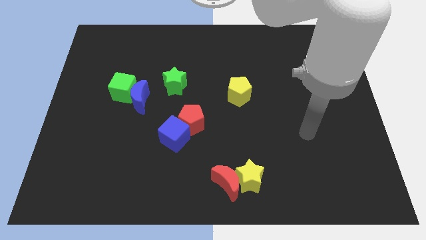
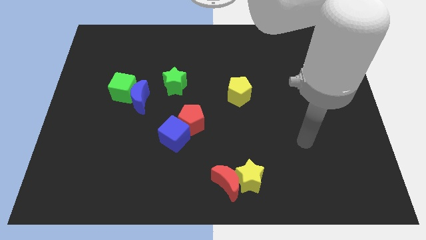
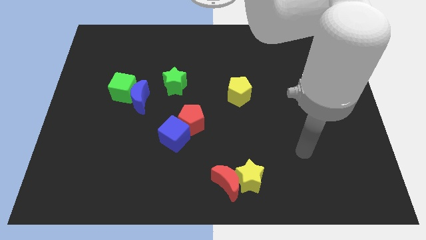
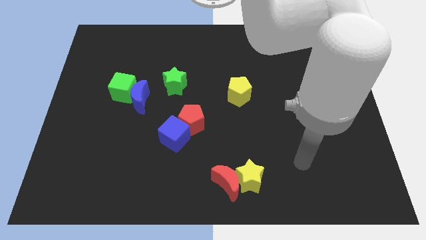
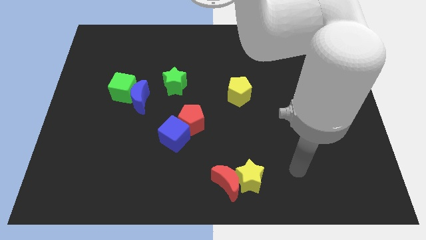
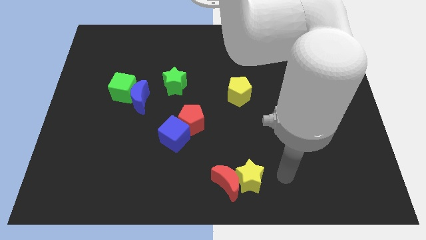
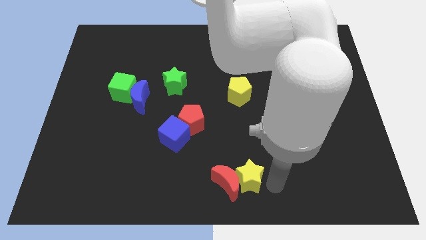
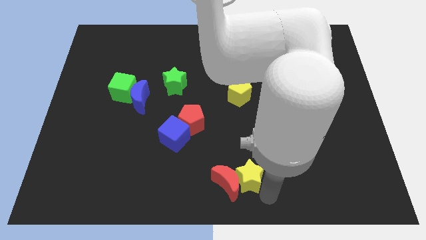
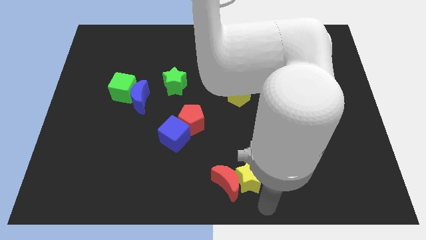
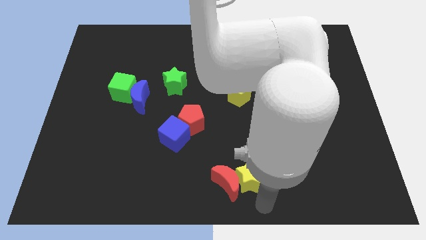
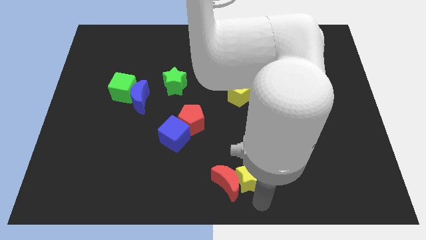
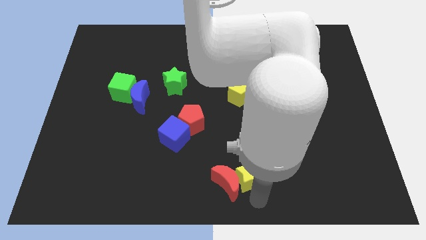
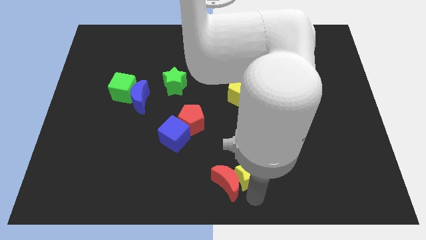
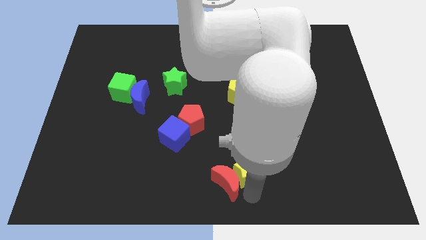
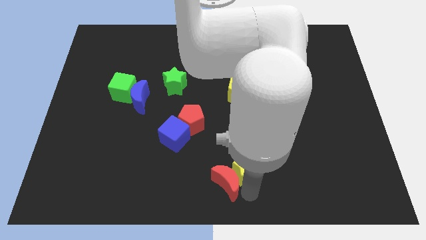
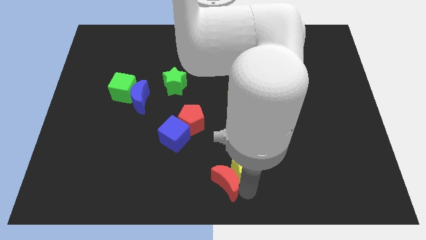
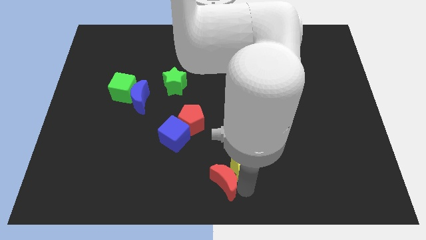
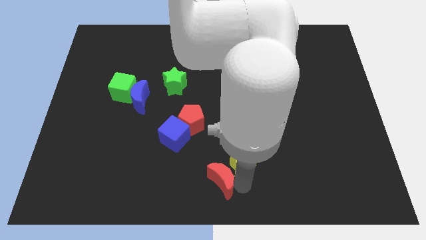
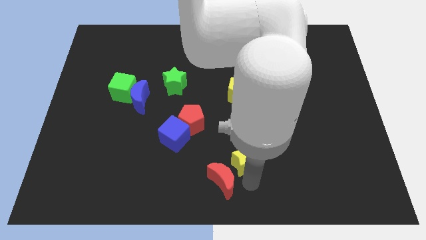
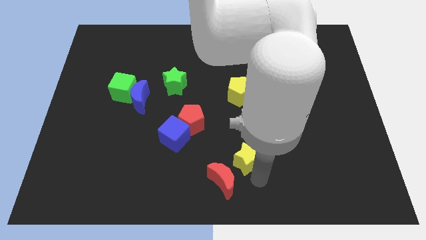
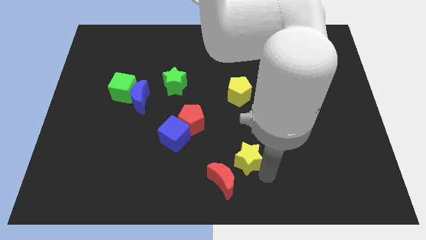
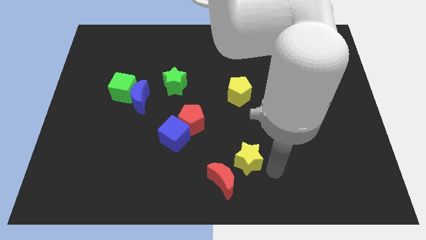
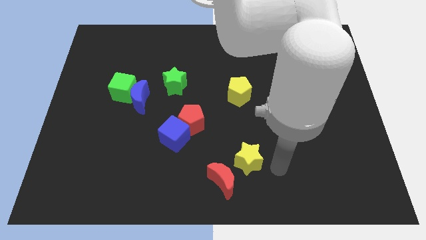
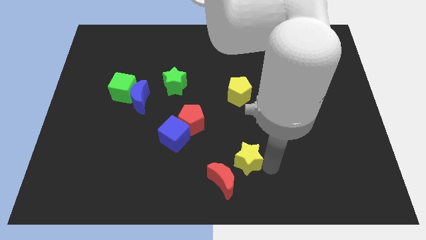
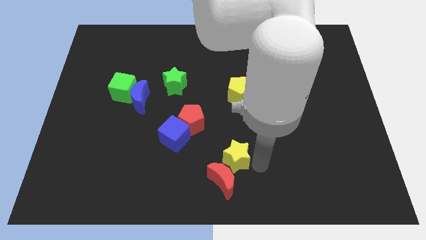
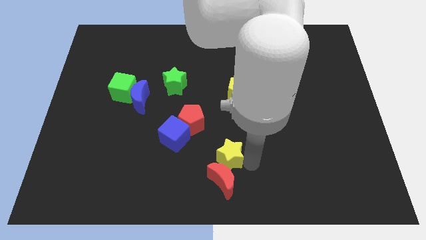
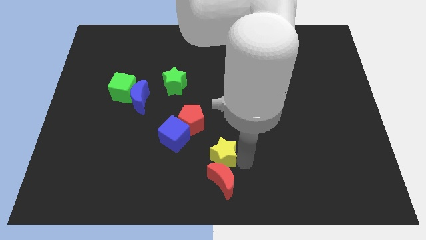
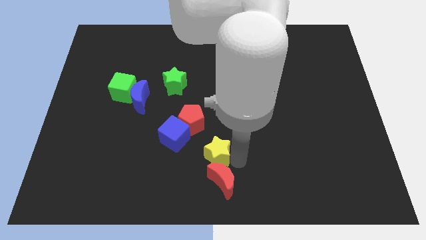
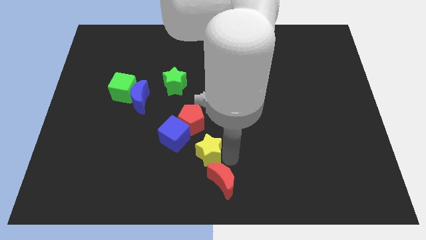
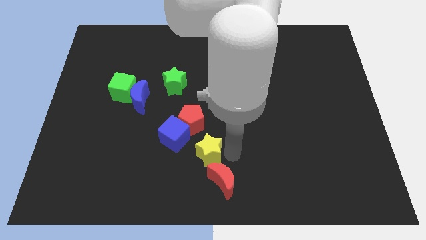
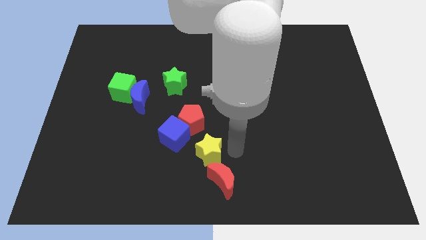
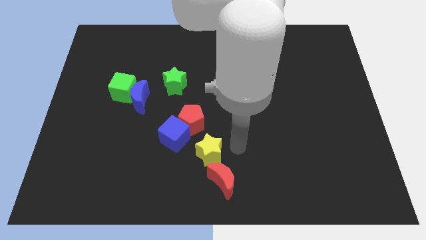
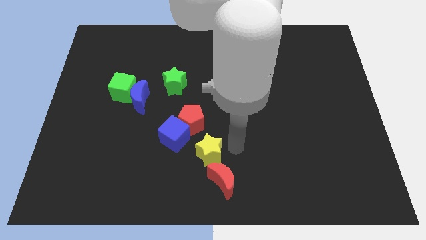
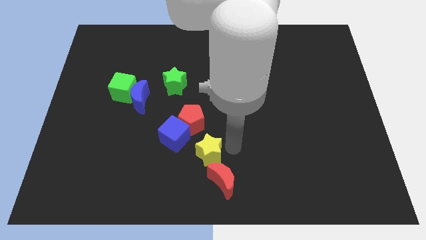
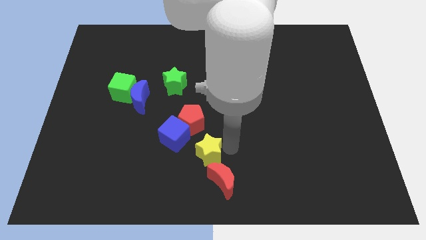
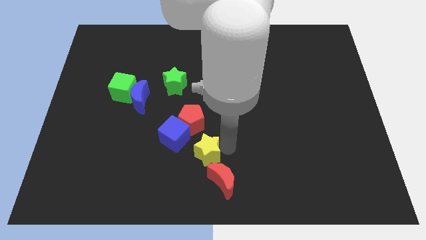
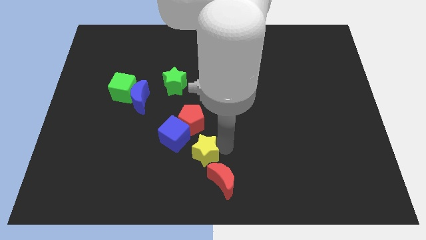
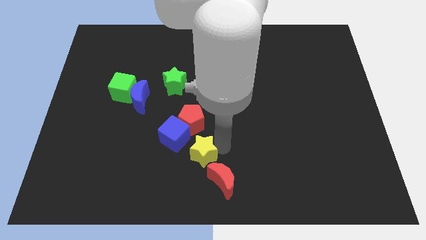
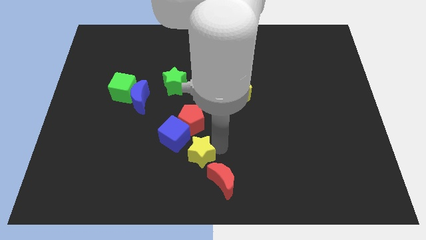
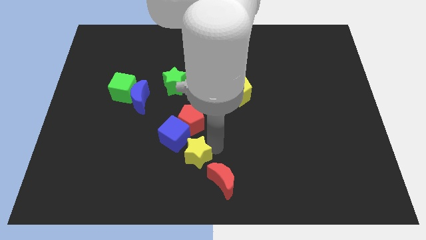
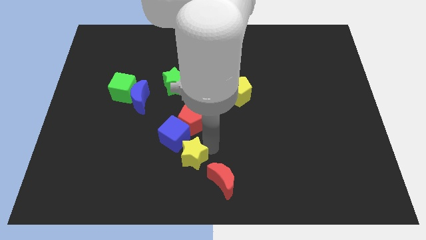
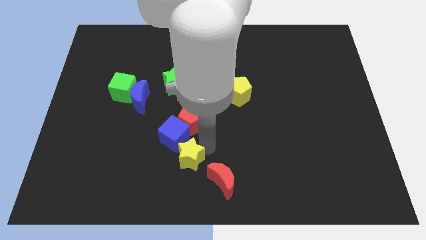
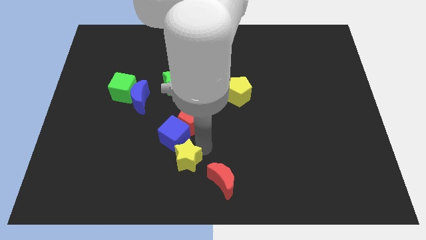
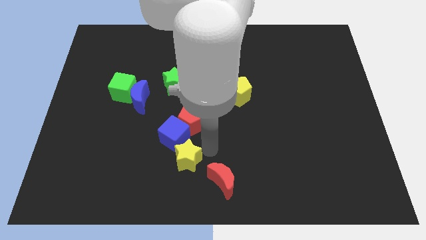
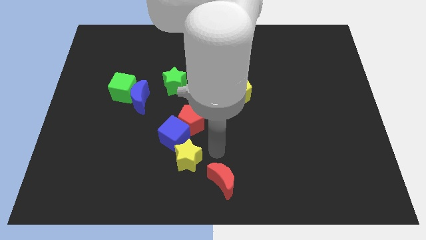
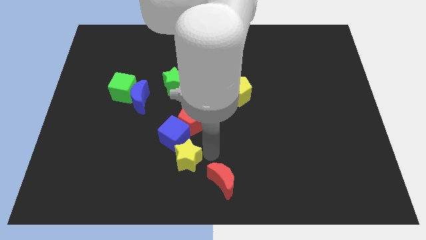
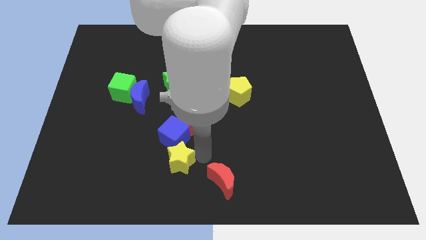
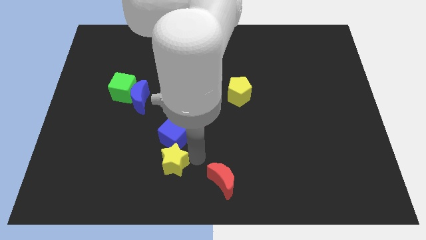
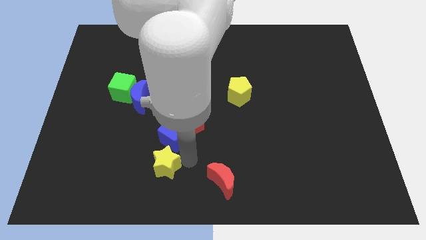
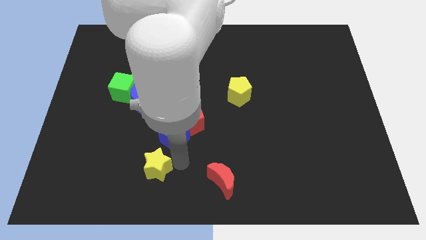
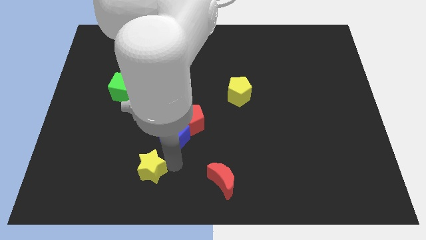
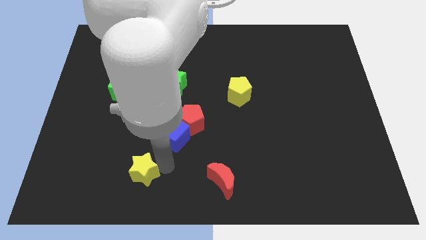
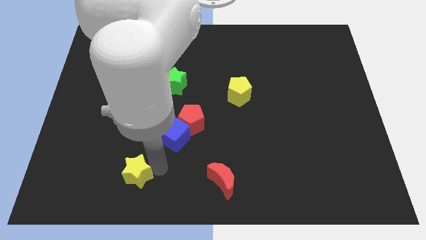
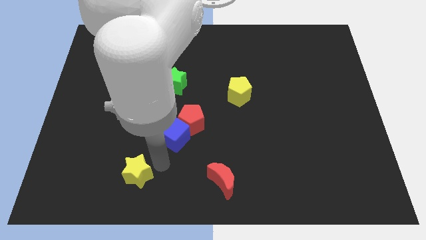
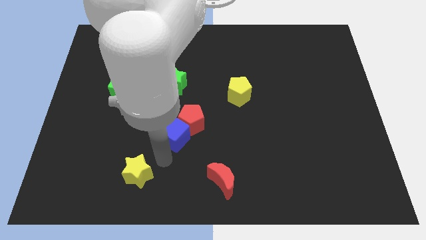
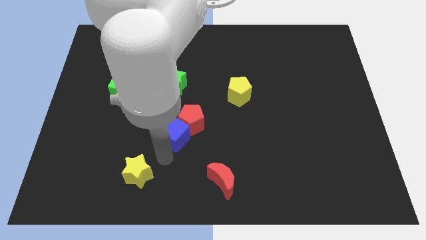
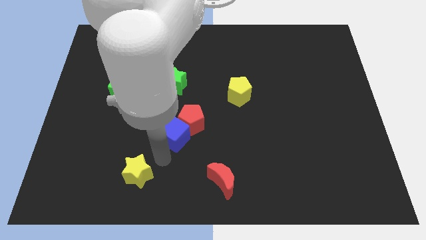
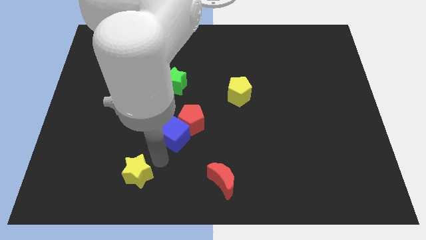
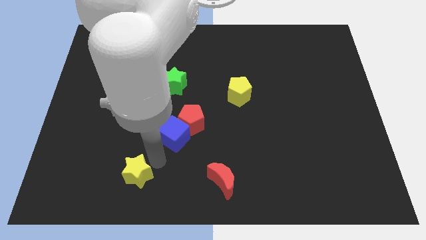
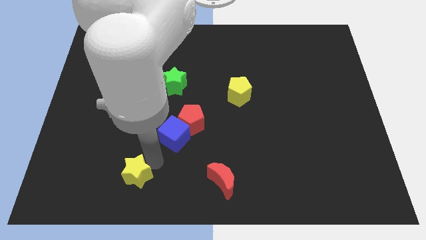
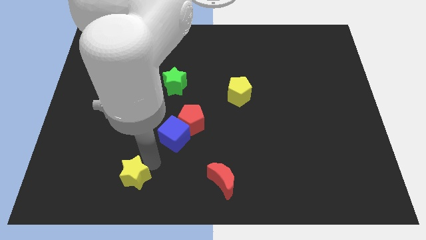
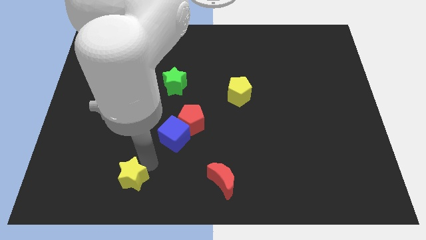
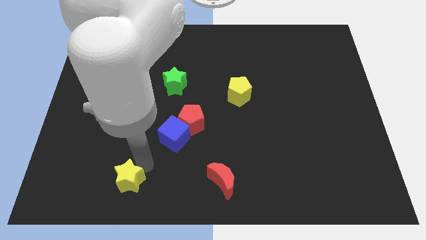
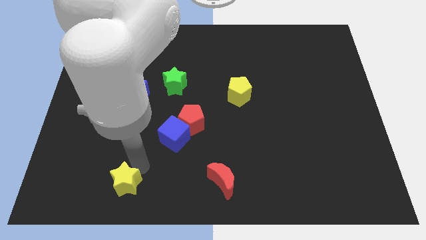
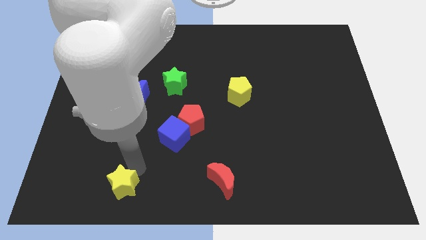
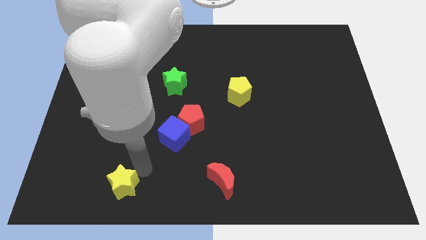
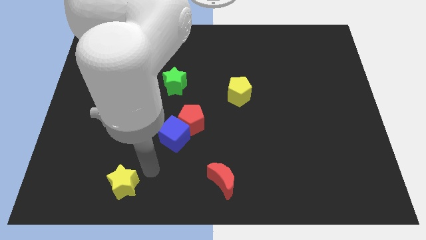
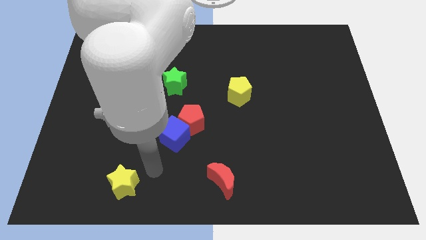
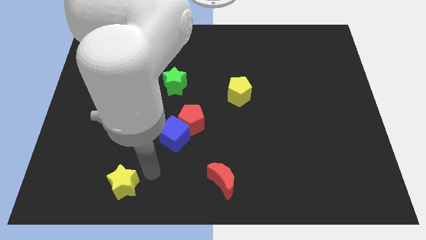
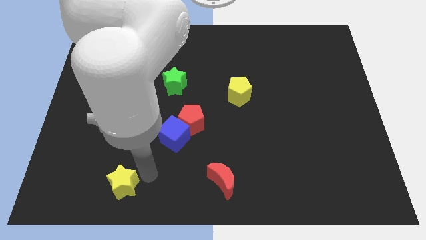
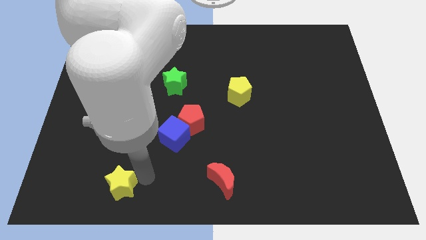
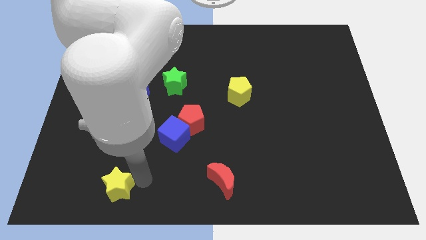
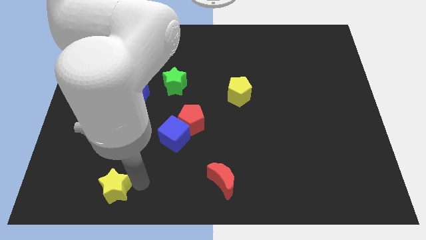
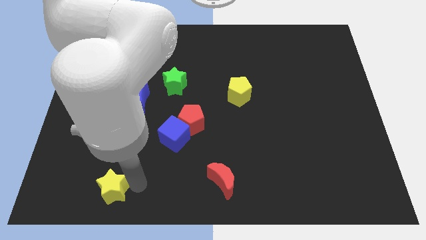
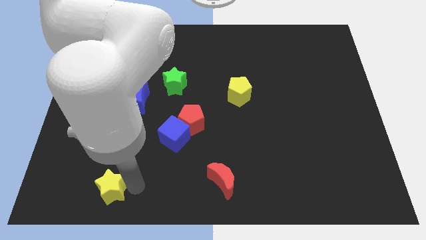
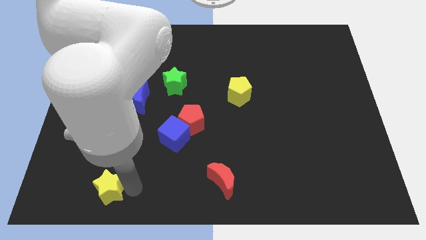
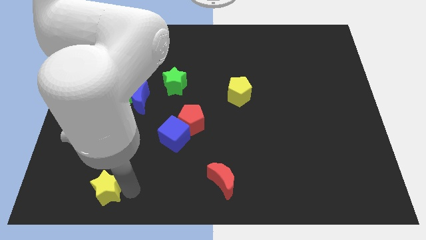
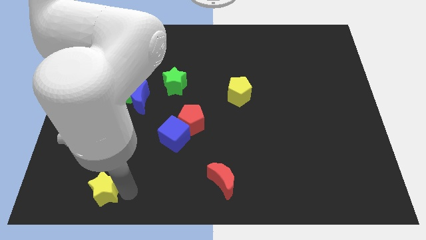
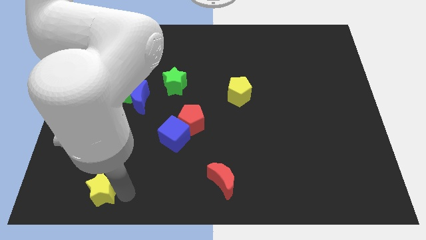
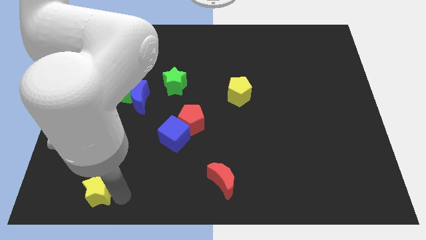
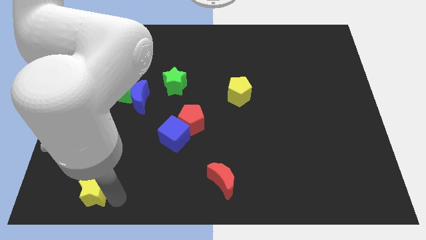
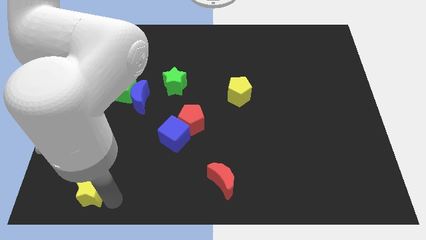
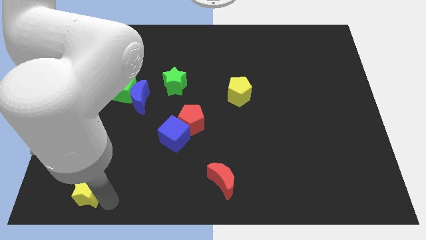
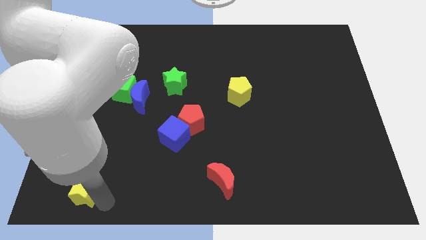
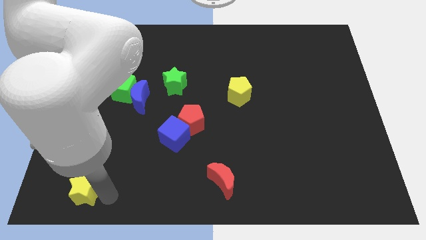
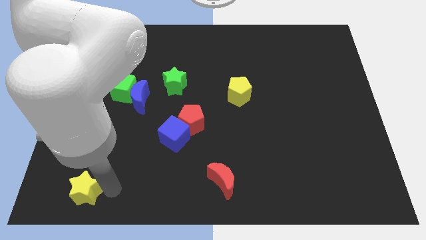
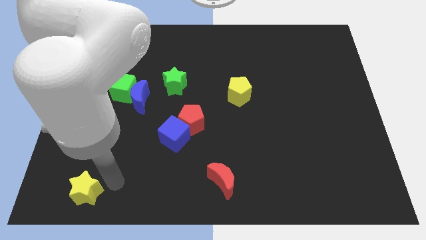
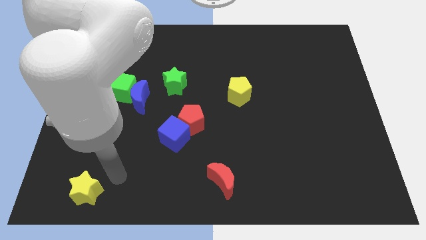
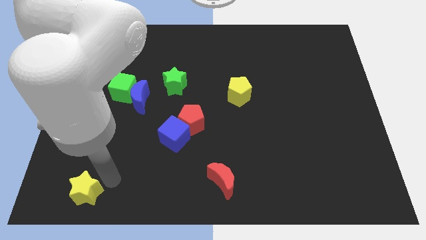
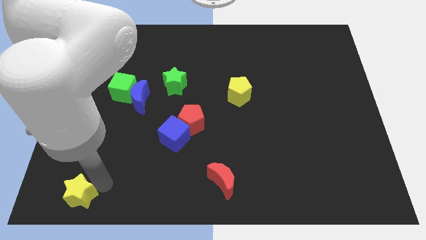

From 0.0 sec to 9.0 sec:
move the yellow star to the bottom left of the board
